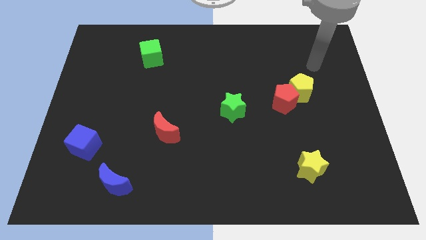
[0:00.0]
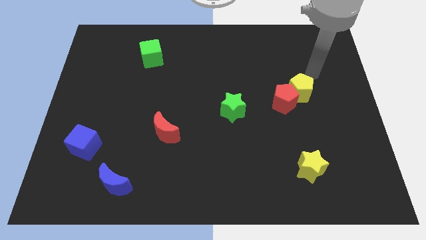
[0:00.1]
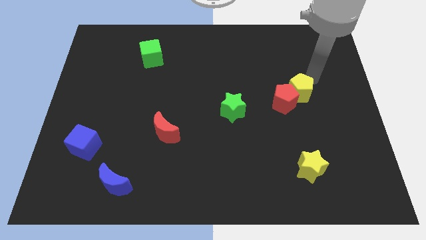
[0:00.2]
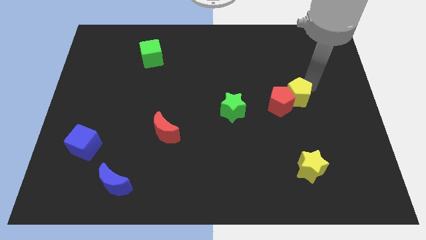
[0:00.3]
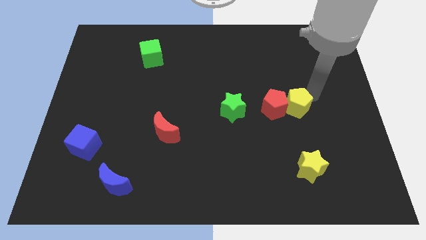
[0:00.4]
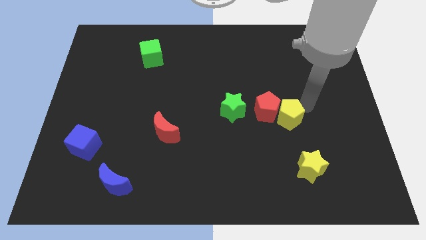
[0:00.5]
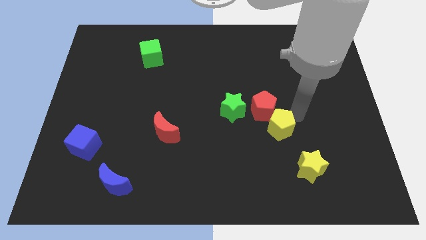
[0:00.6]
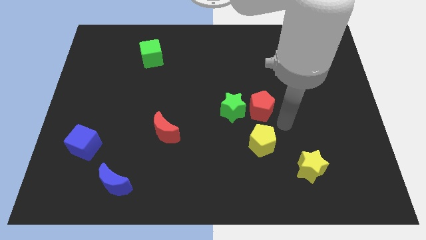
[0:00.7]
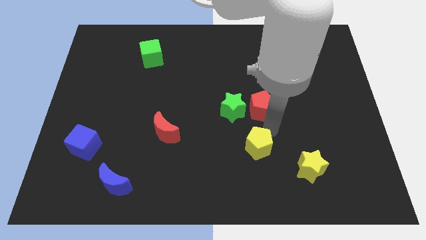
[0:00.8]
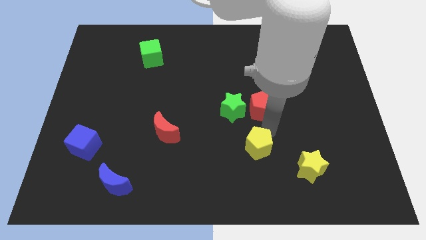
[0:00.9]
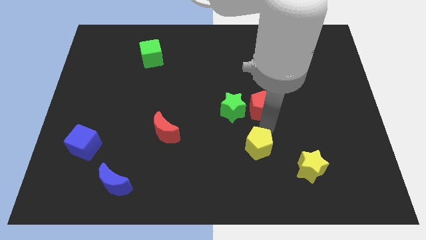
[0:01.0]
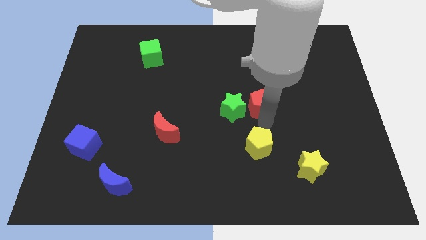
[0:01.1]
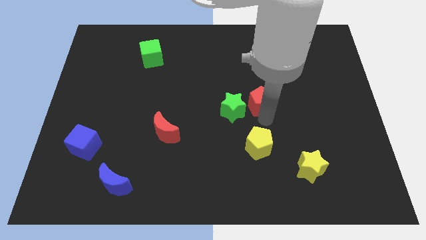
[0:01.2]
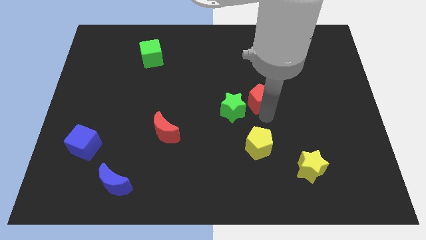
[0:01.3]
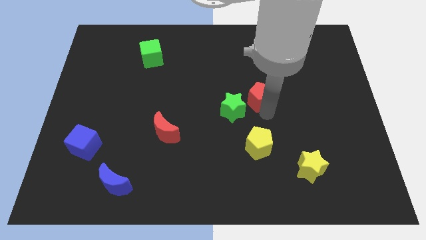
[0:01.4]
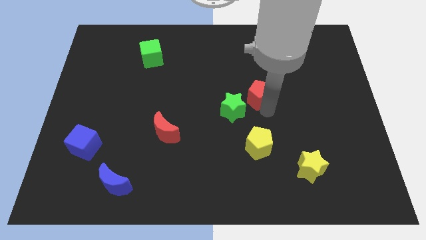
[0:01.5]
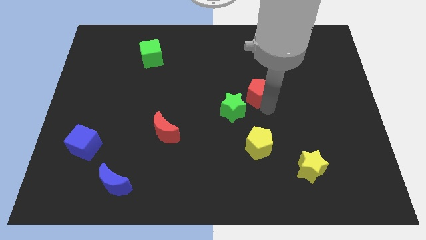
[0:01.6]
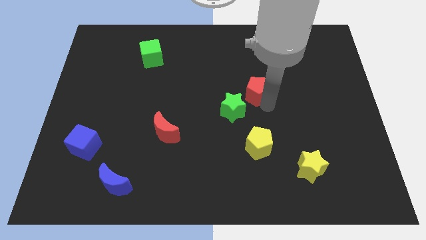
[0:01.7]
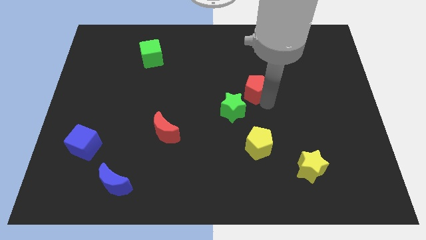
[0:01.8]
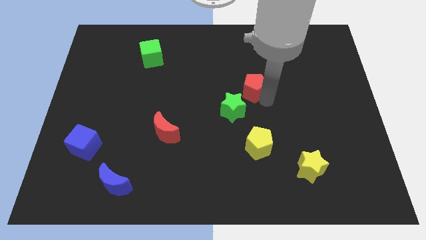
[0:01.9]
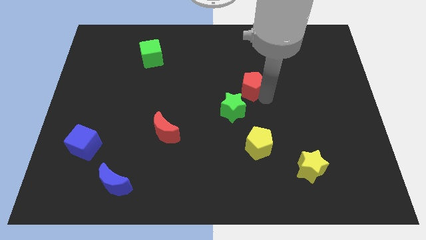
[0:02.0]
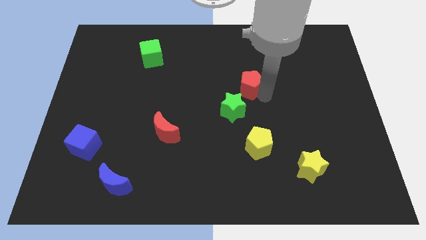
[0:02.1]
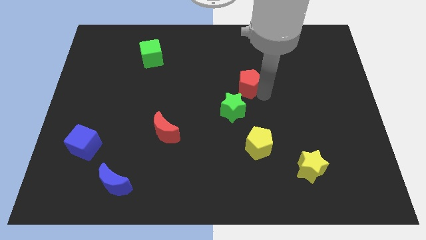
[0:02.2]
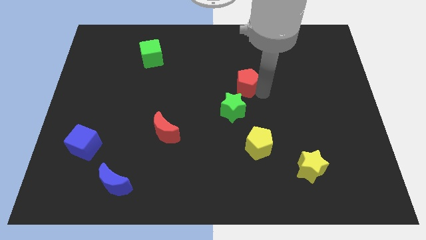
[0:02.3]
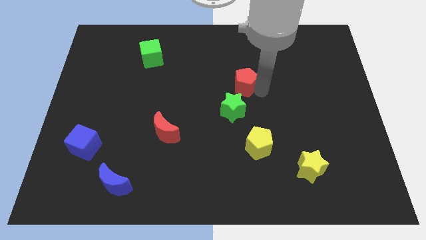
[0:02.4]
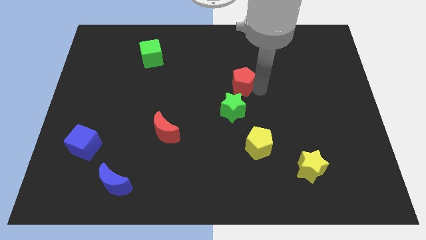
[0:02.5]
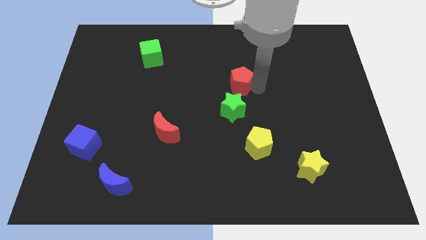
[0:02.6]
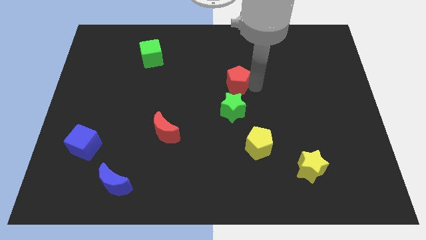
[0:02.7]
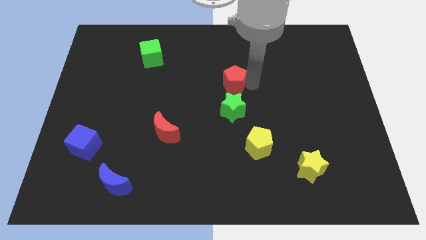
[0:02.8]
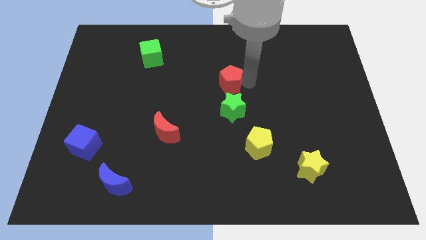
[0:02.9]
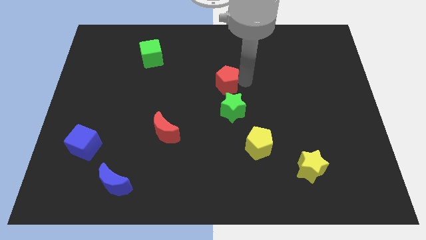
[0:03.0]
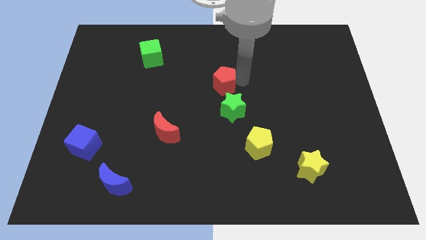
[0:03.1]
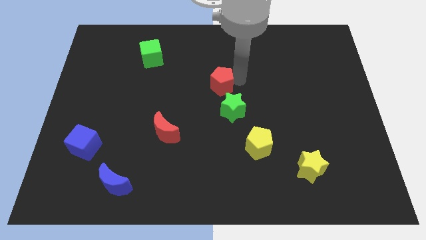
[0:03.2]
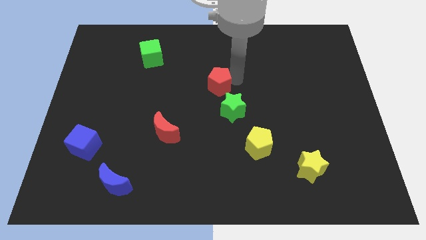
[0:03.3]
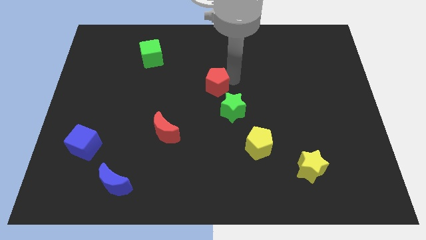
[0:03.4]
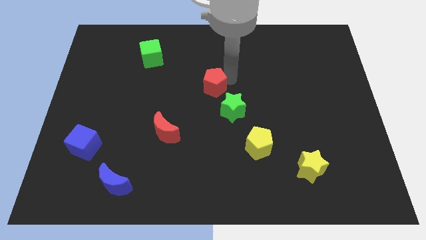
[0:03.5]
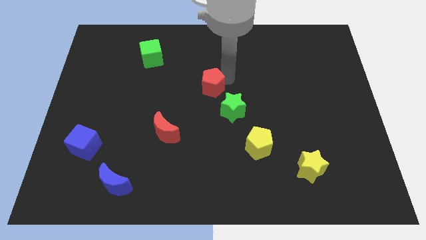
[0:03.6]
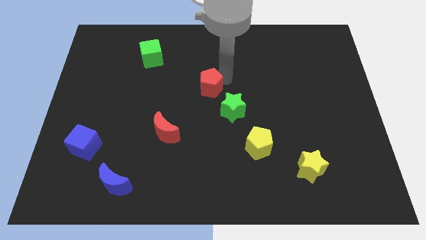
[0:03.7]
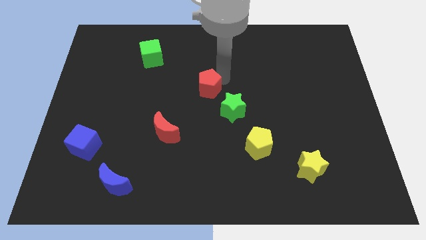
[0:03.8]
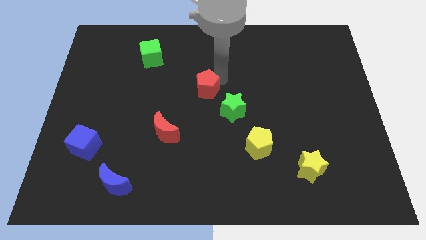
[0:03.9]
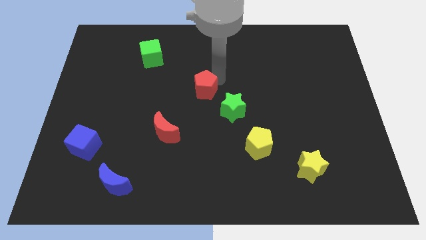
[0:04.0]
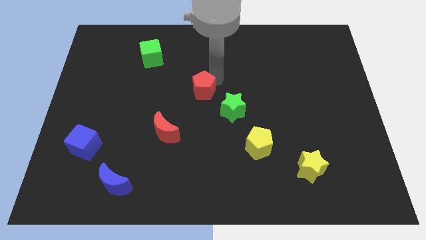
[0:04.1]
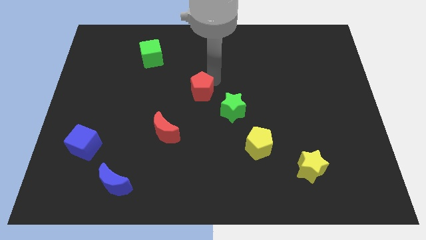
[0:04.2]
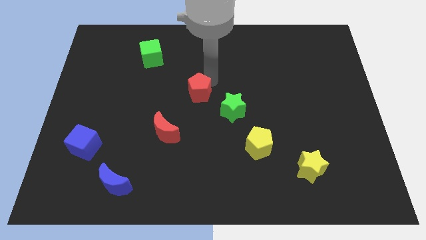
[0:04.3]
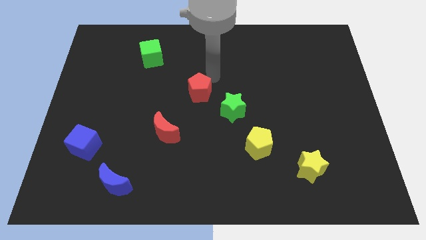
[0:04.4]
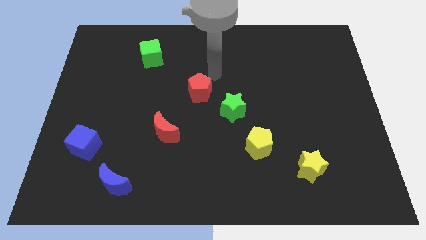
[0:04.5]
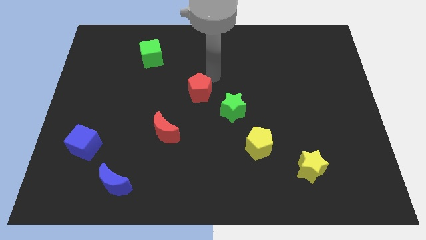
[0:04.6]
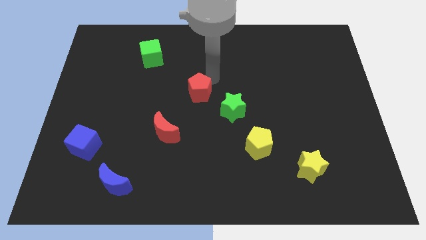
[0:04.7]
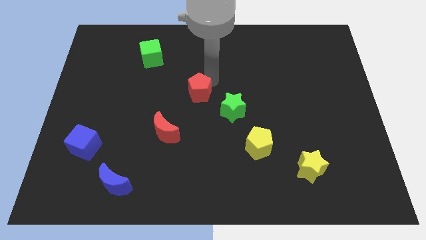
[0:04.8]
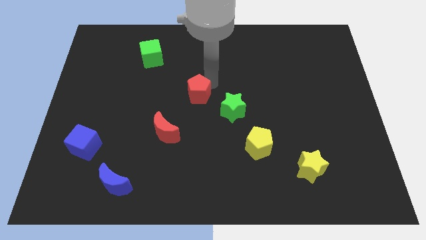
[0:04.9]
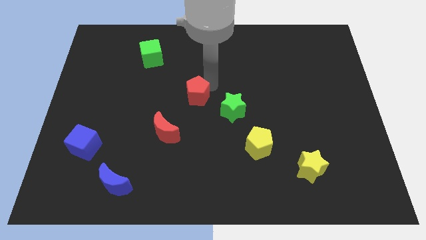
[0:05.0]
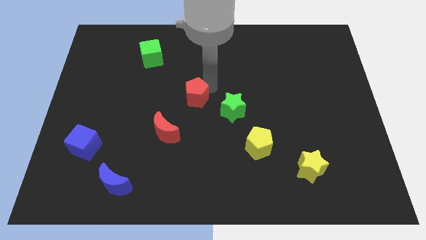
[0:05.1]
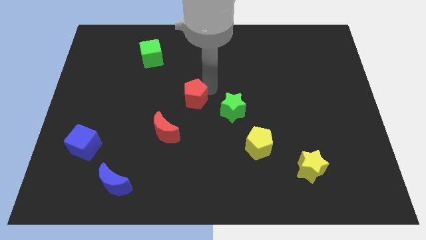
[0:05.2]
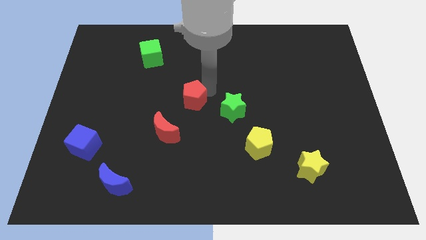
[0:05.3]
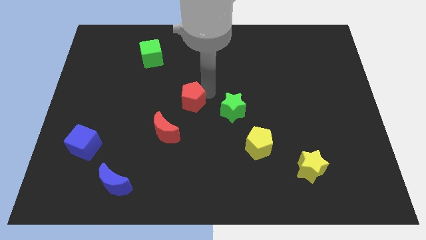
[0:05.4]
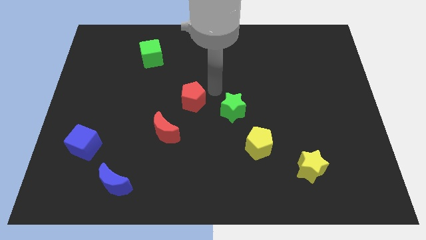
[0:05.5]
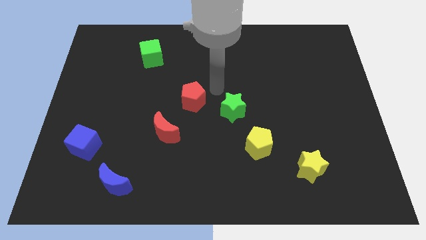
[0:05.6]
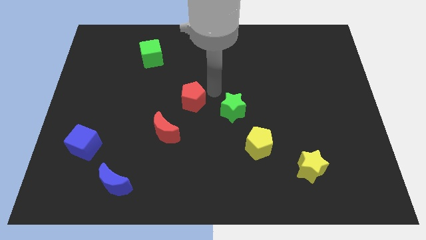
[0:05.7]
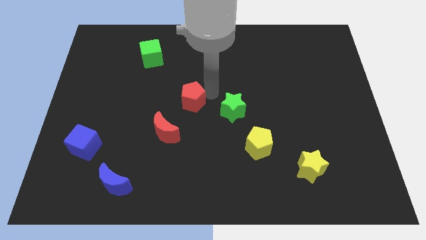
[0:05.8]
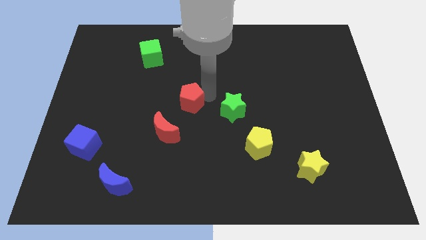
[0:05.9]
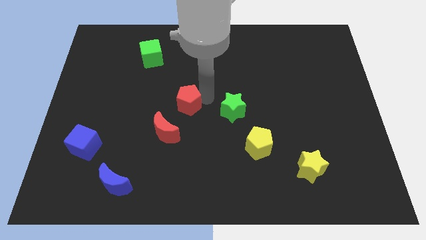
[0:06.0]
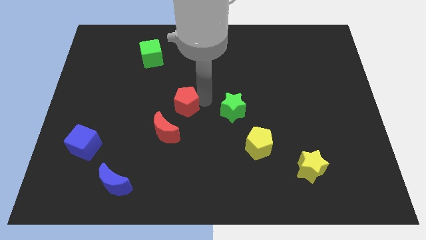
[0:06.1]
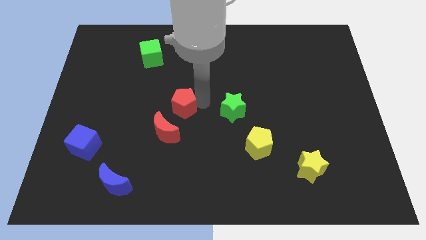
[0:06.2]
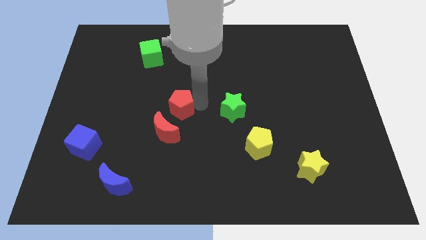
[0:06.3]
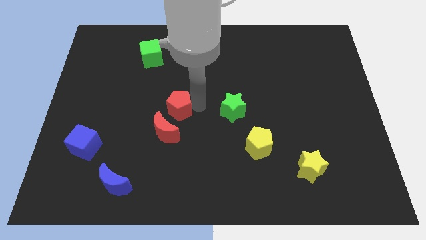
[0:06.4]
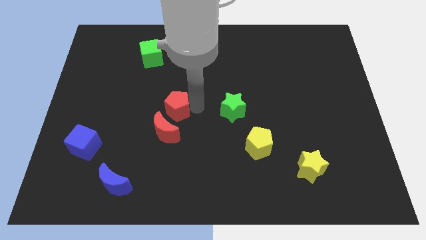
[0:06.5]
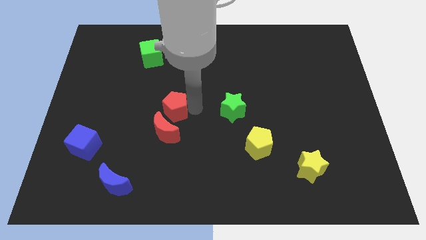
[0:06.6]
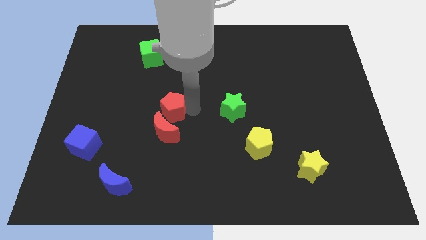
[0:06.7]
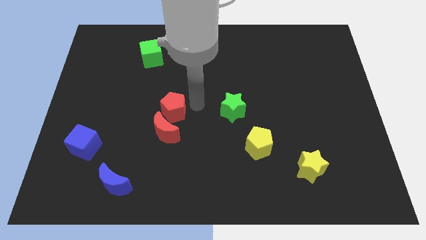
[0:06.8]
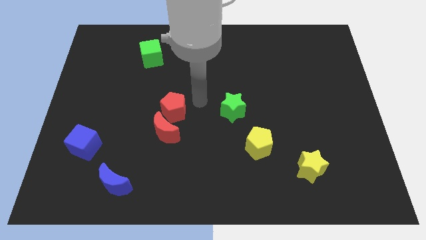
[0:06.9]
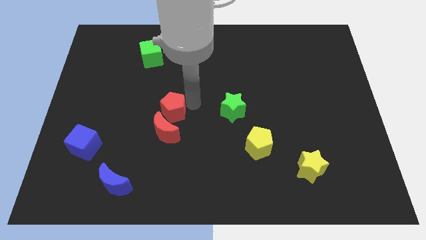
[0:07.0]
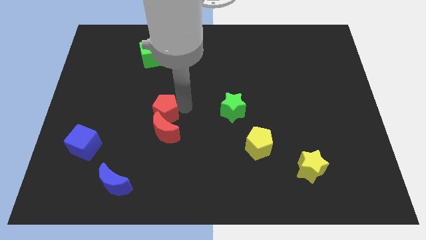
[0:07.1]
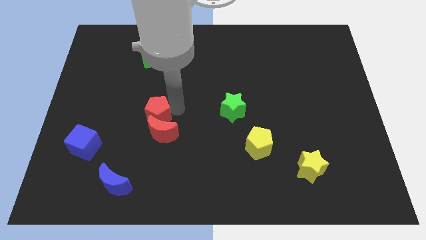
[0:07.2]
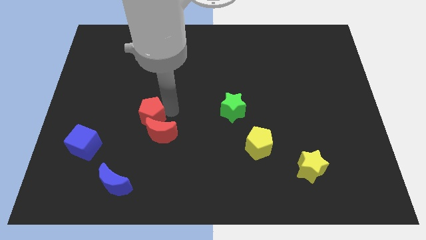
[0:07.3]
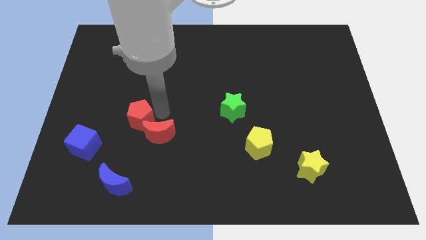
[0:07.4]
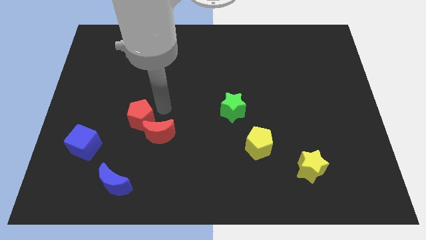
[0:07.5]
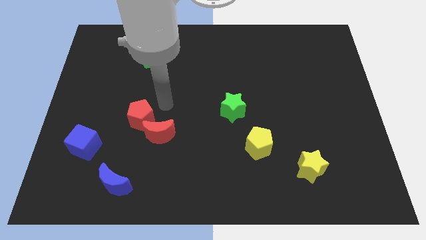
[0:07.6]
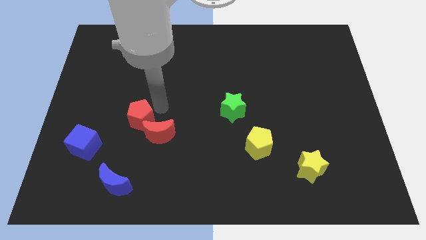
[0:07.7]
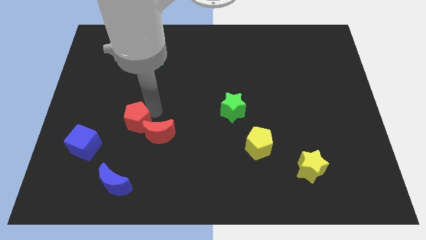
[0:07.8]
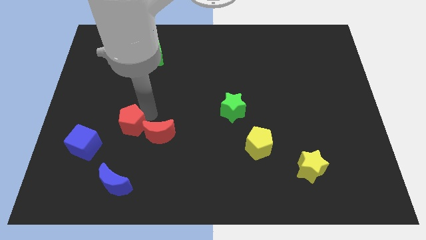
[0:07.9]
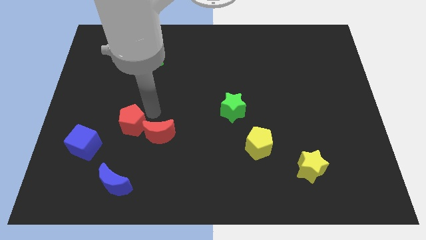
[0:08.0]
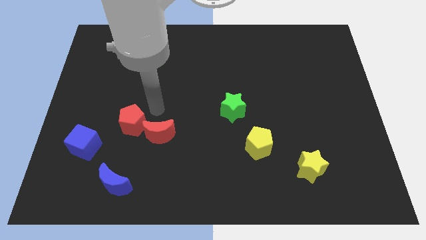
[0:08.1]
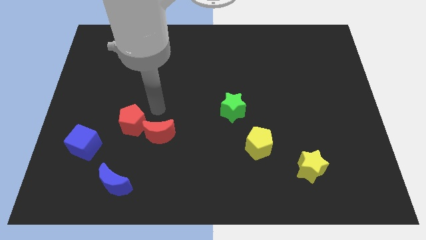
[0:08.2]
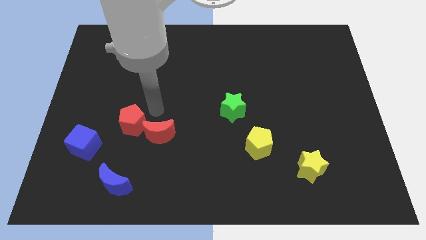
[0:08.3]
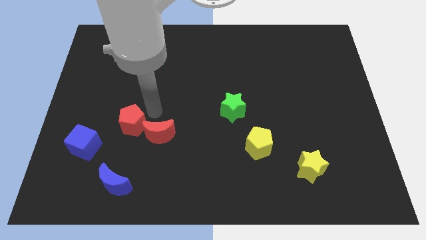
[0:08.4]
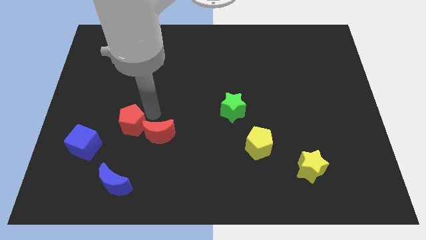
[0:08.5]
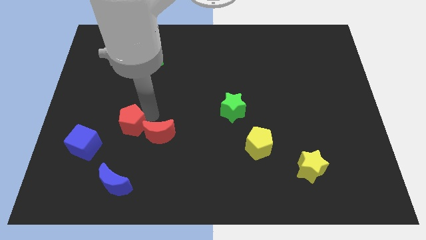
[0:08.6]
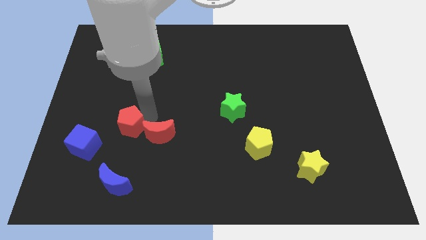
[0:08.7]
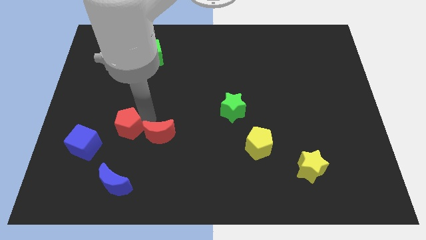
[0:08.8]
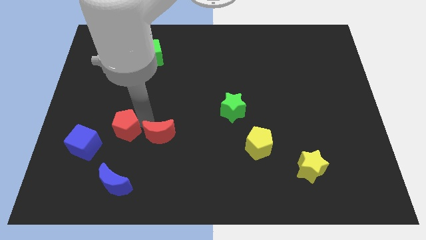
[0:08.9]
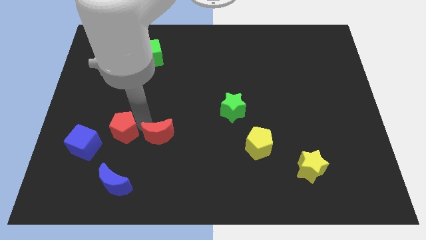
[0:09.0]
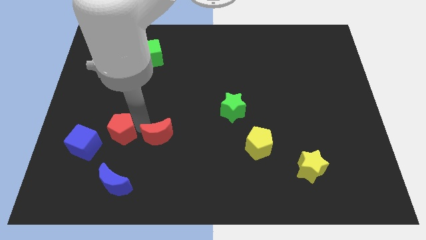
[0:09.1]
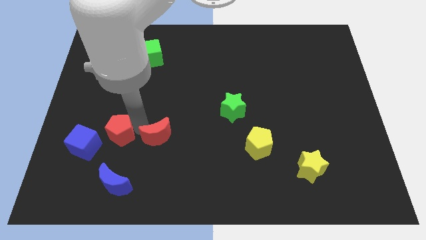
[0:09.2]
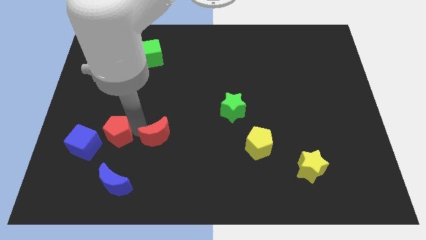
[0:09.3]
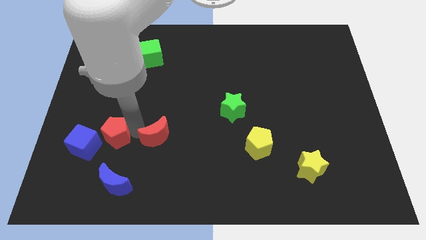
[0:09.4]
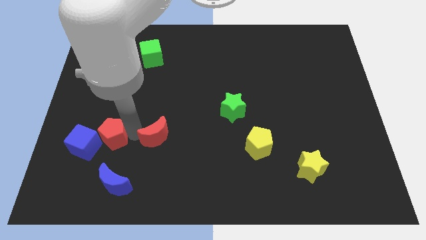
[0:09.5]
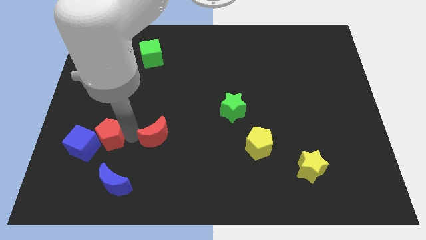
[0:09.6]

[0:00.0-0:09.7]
move the red pentagon towards the blue cube
